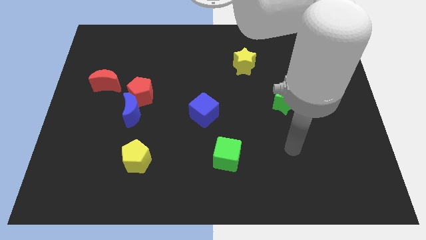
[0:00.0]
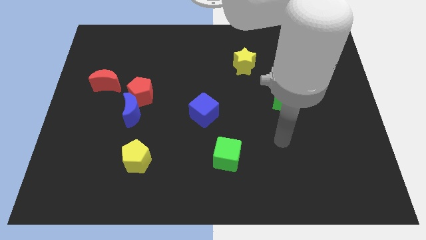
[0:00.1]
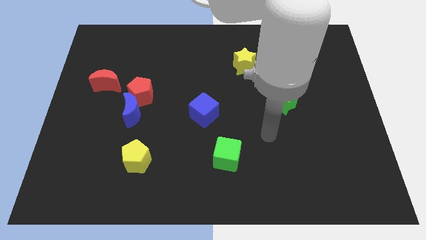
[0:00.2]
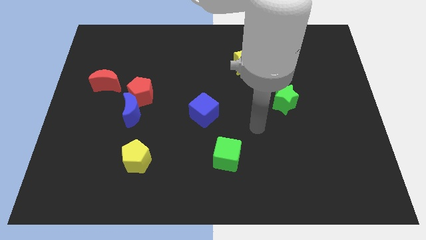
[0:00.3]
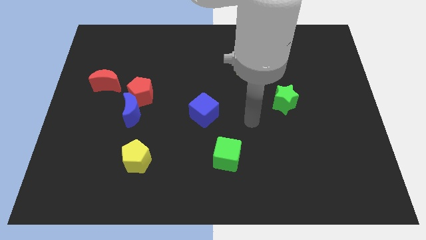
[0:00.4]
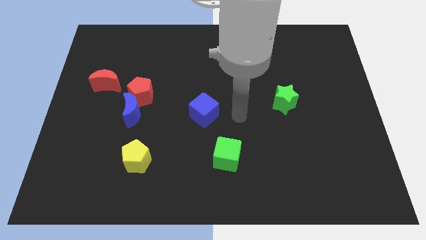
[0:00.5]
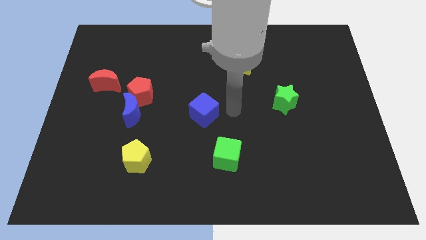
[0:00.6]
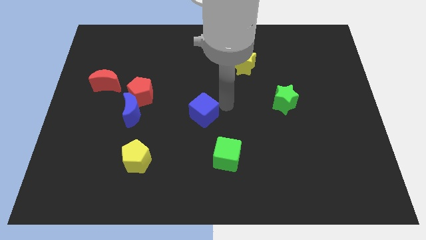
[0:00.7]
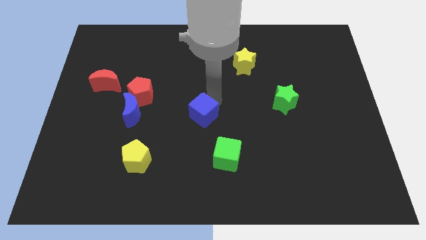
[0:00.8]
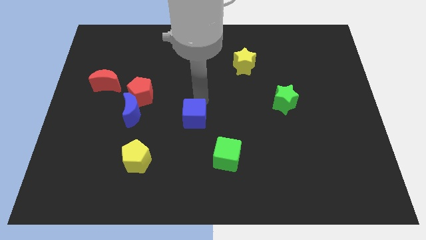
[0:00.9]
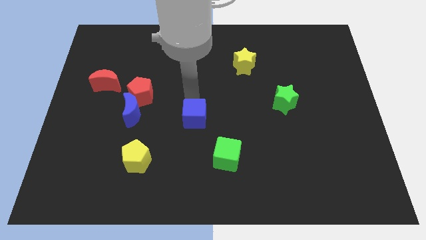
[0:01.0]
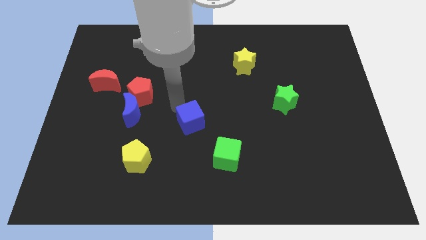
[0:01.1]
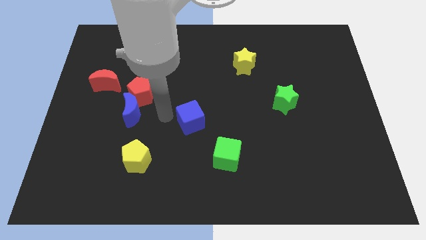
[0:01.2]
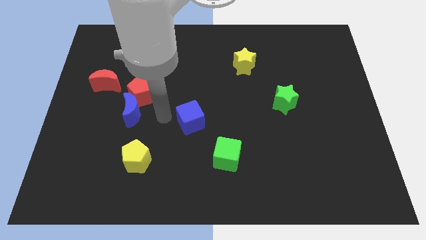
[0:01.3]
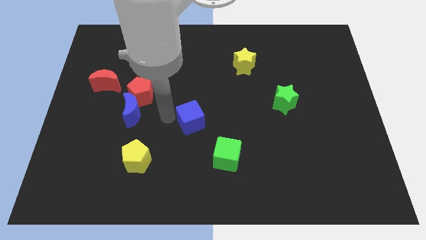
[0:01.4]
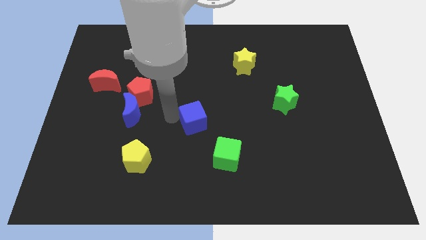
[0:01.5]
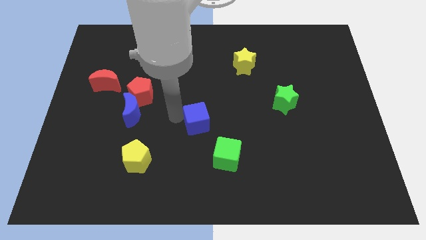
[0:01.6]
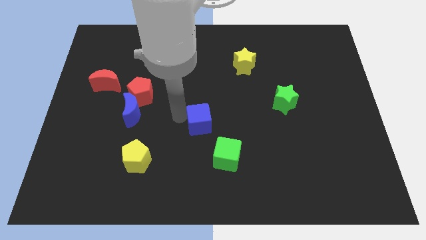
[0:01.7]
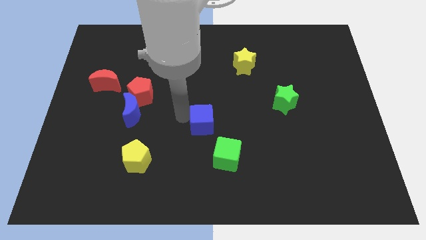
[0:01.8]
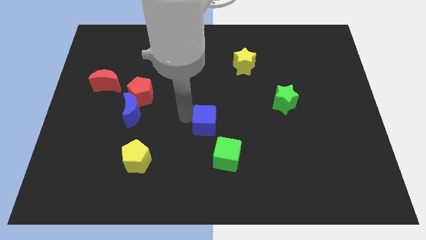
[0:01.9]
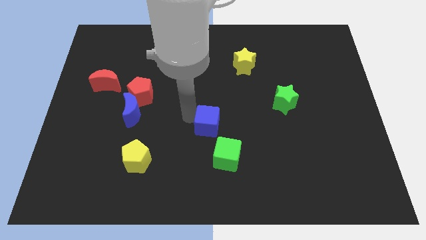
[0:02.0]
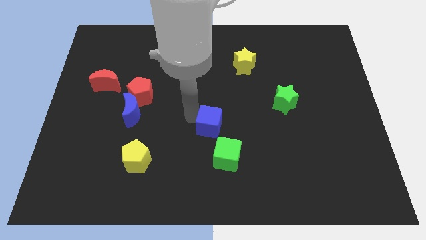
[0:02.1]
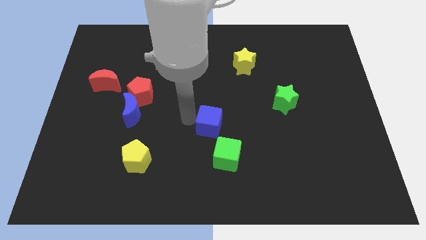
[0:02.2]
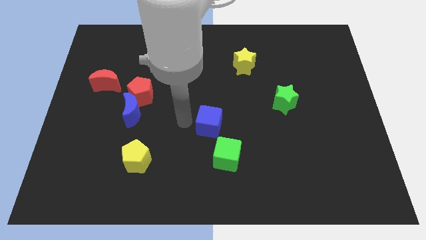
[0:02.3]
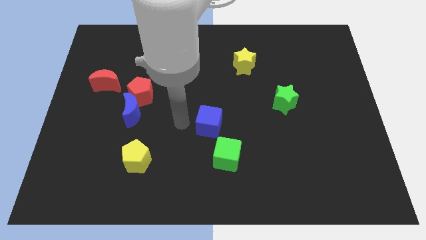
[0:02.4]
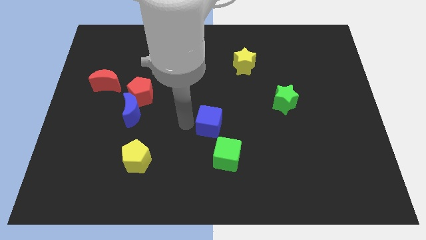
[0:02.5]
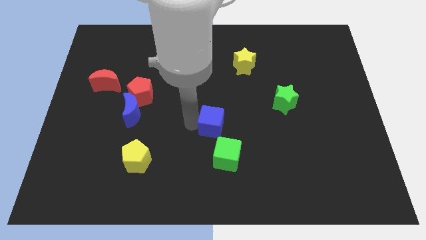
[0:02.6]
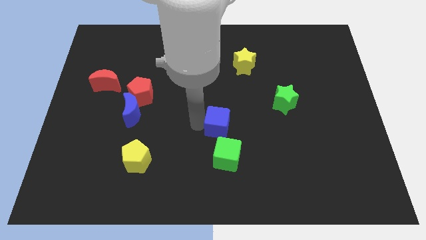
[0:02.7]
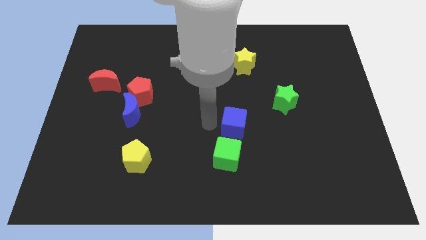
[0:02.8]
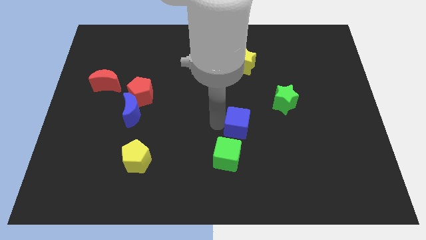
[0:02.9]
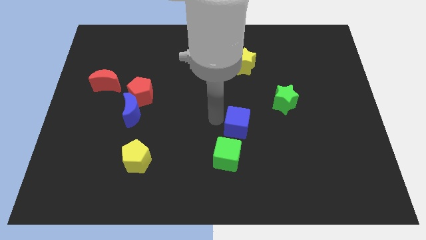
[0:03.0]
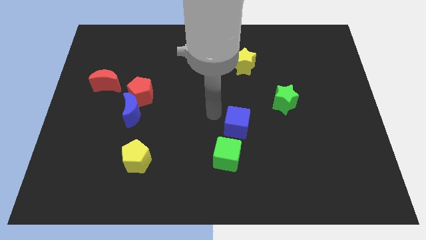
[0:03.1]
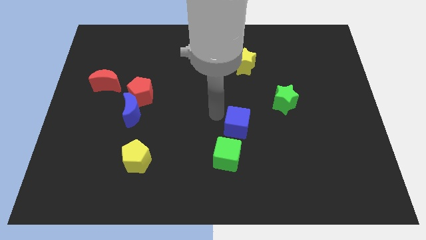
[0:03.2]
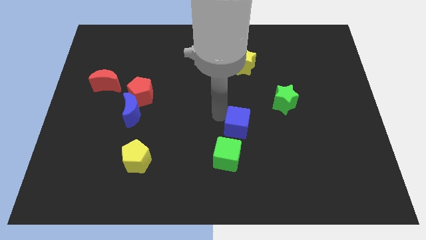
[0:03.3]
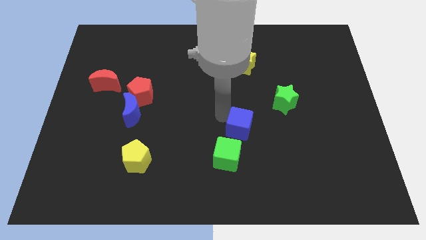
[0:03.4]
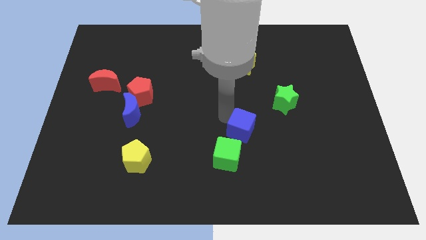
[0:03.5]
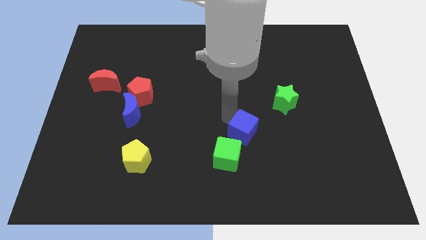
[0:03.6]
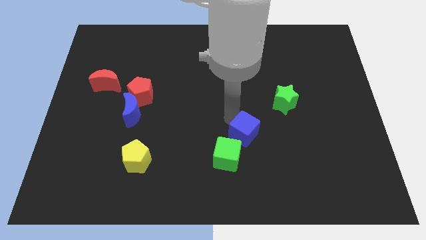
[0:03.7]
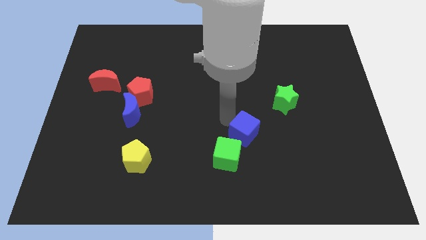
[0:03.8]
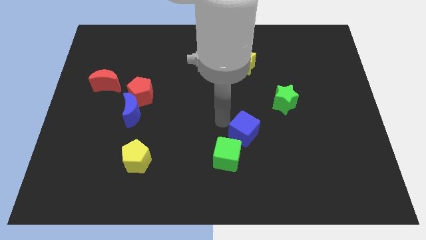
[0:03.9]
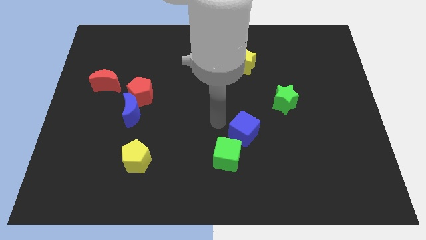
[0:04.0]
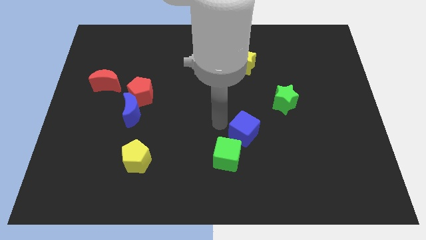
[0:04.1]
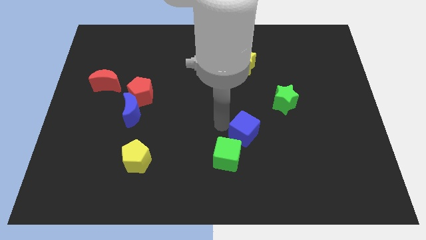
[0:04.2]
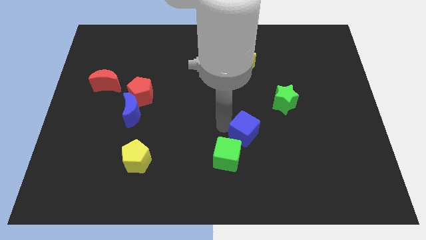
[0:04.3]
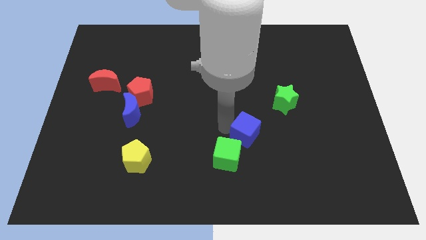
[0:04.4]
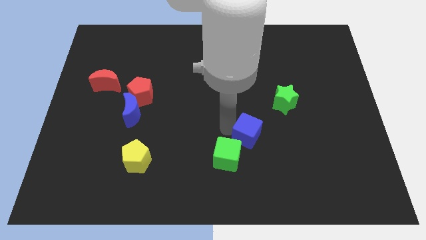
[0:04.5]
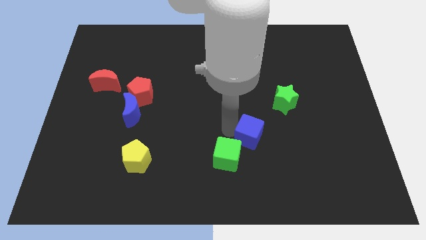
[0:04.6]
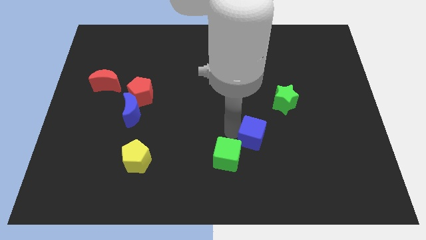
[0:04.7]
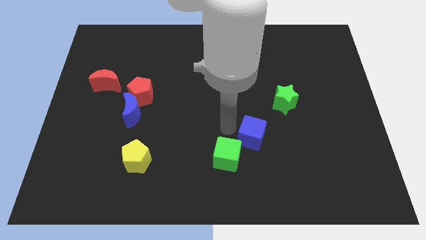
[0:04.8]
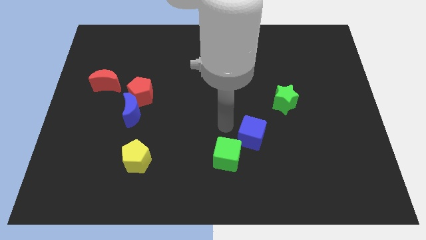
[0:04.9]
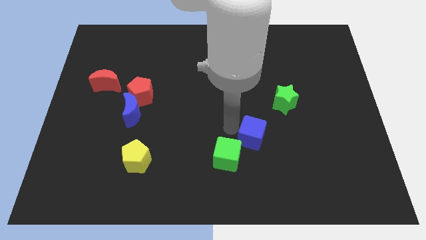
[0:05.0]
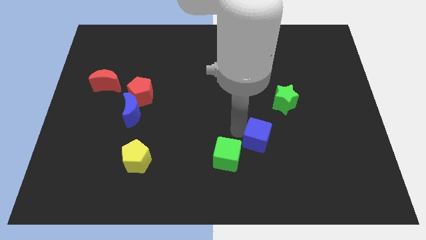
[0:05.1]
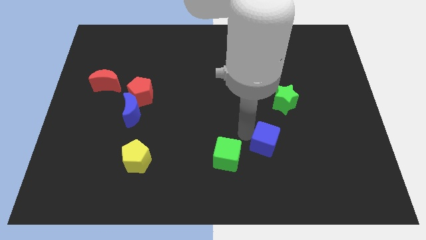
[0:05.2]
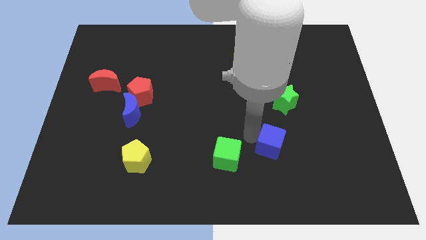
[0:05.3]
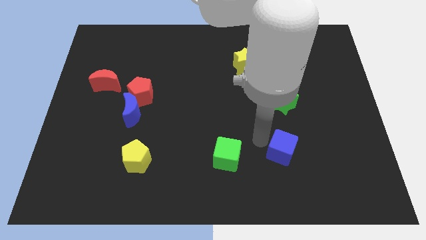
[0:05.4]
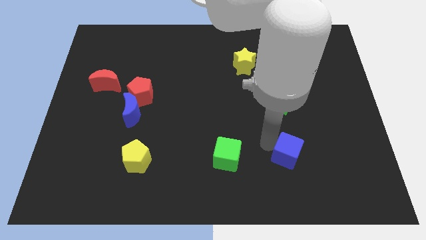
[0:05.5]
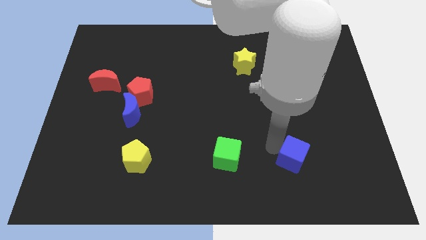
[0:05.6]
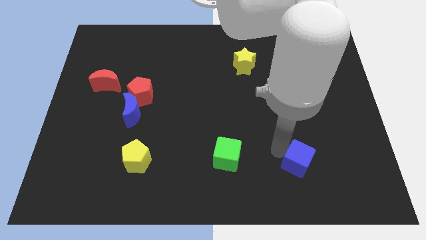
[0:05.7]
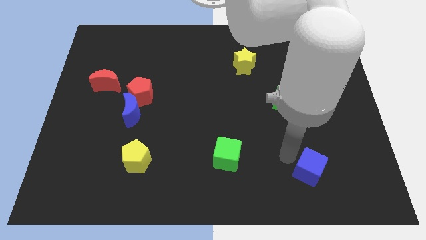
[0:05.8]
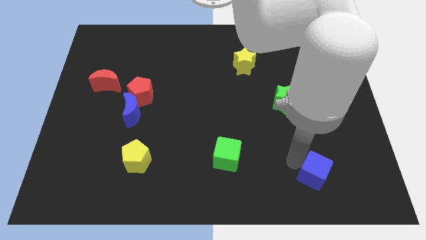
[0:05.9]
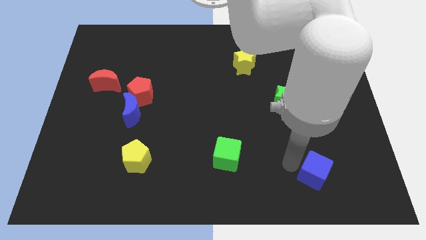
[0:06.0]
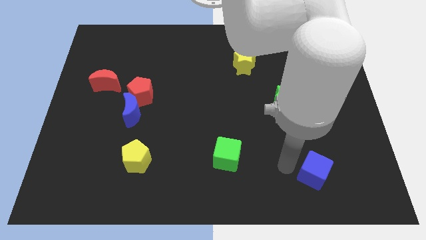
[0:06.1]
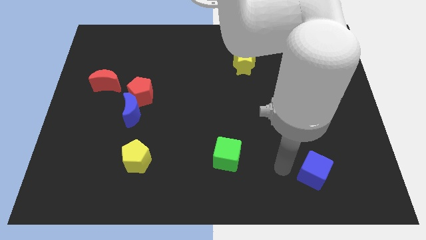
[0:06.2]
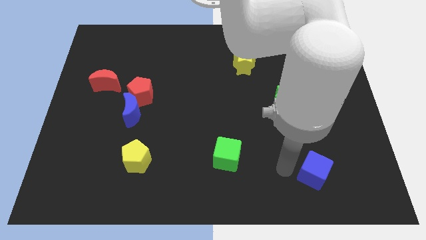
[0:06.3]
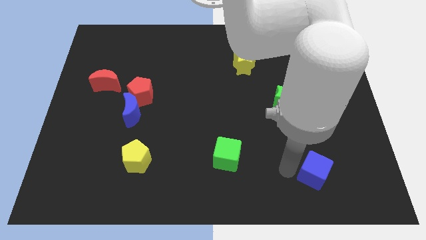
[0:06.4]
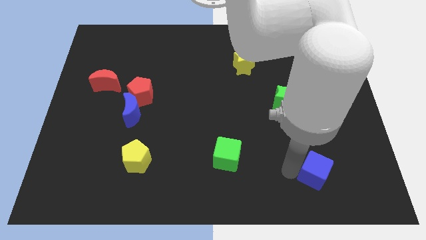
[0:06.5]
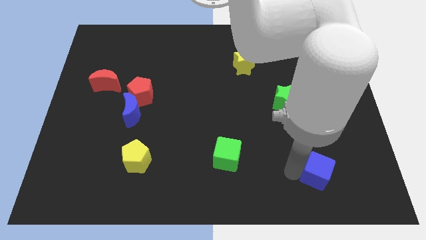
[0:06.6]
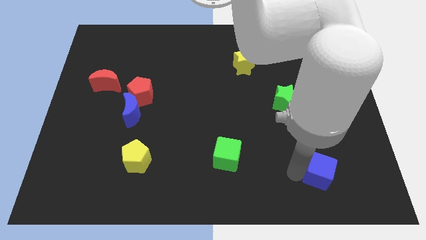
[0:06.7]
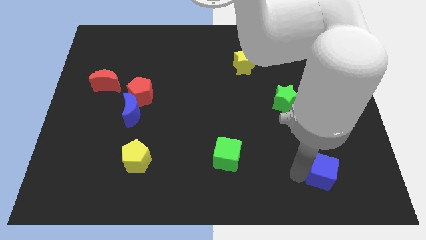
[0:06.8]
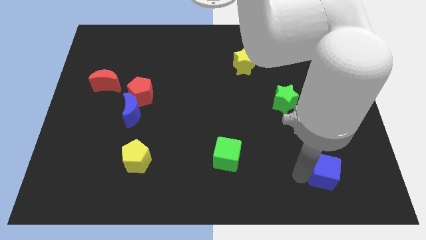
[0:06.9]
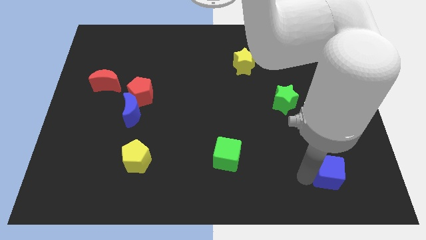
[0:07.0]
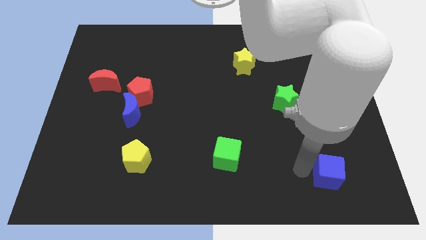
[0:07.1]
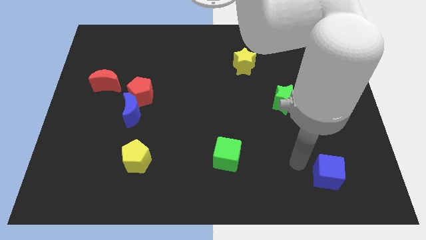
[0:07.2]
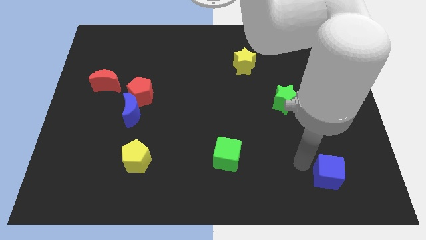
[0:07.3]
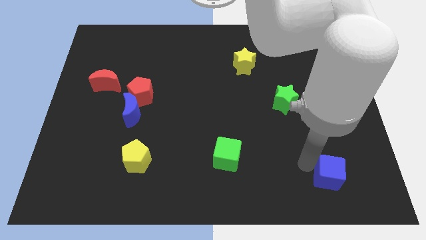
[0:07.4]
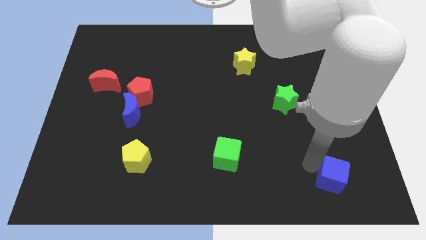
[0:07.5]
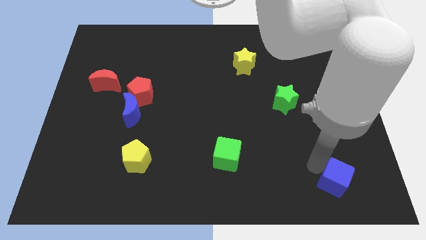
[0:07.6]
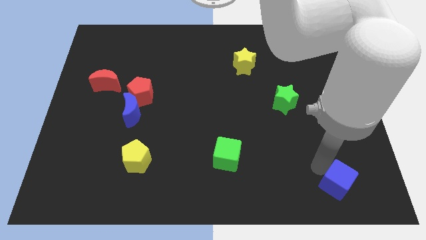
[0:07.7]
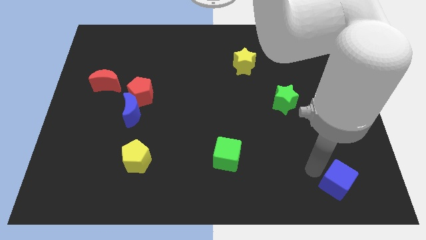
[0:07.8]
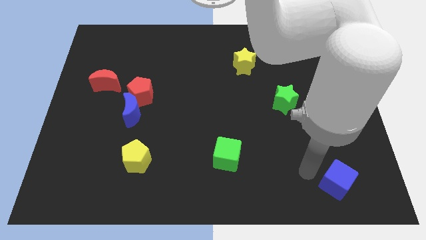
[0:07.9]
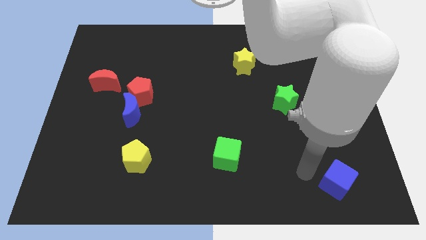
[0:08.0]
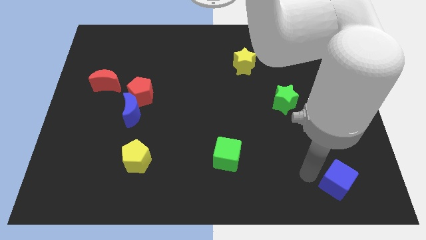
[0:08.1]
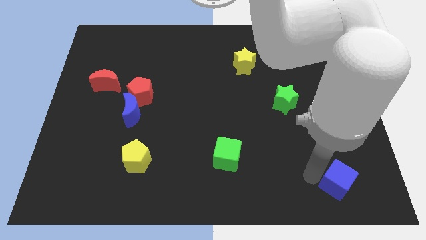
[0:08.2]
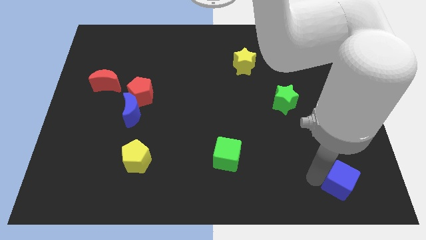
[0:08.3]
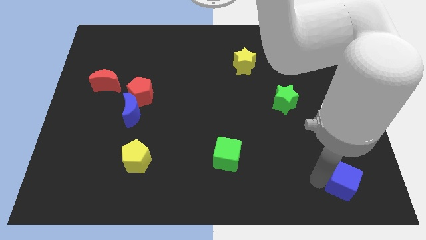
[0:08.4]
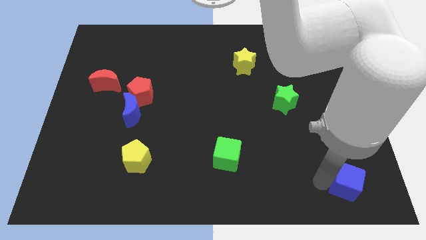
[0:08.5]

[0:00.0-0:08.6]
move the blue cube to the lower right corner
